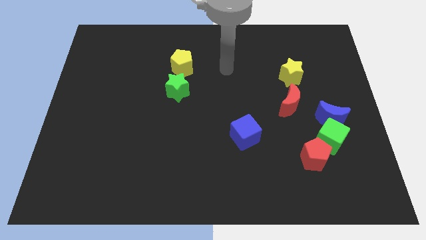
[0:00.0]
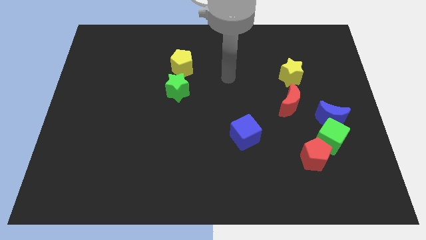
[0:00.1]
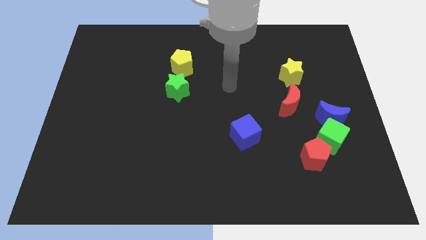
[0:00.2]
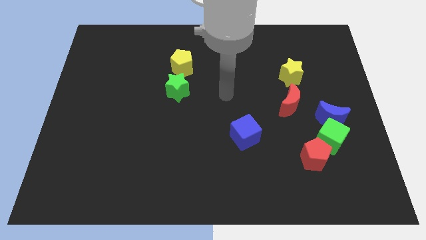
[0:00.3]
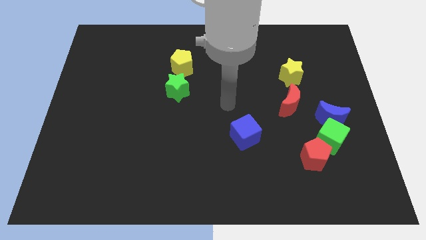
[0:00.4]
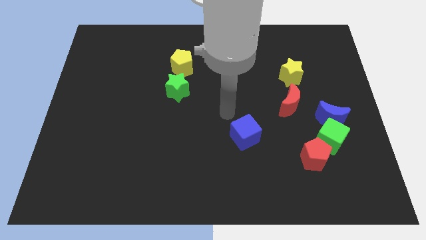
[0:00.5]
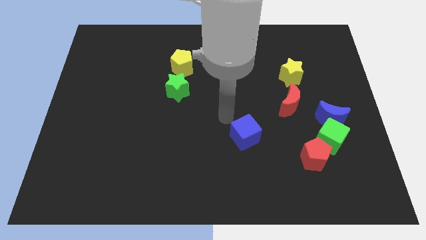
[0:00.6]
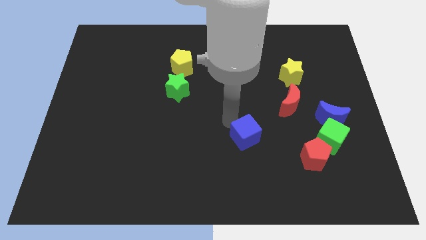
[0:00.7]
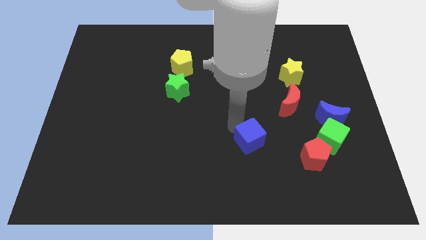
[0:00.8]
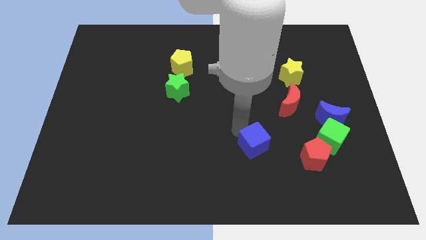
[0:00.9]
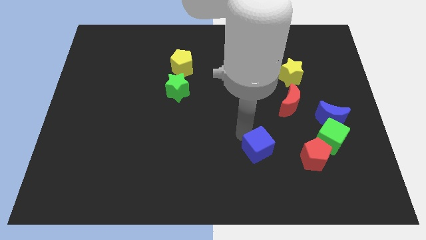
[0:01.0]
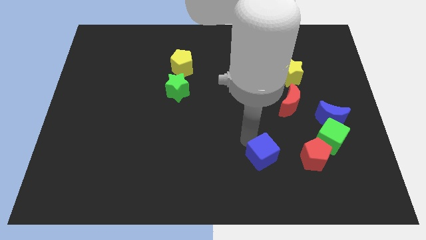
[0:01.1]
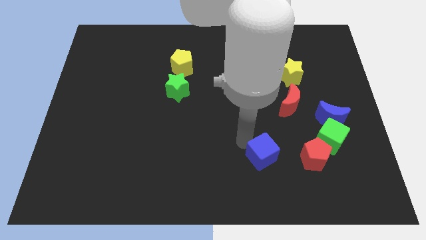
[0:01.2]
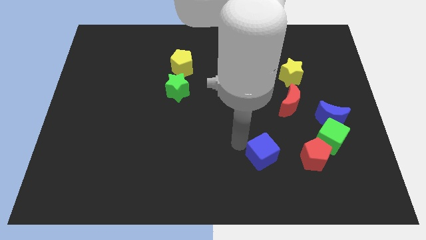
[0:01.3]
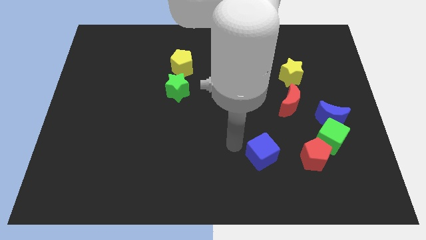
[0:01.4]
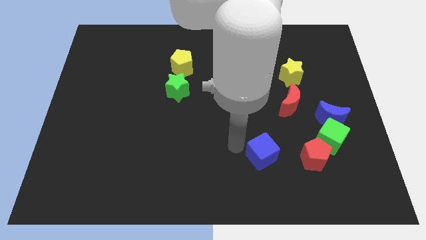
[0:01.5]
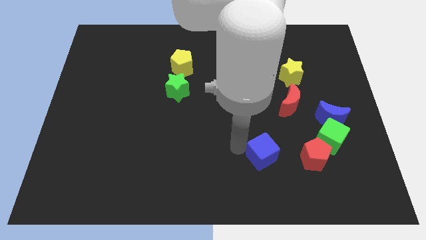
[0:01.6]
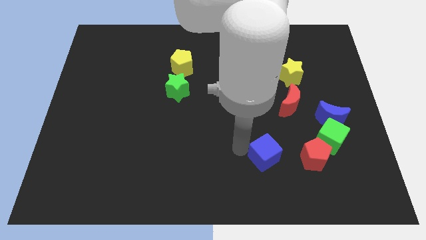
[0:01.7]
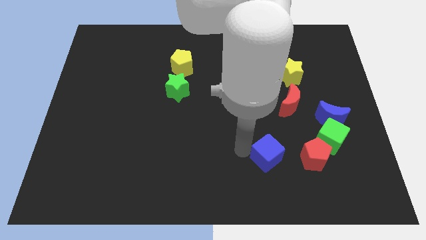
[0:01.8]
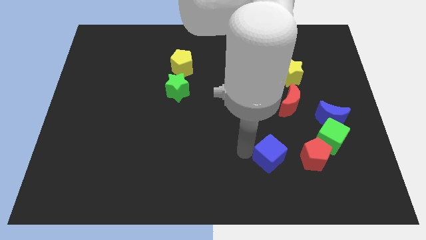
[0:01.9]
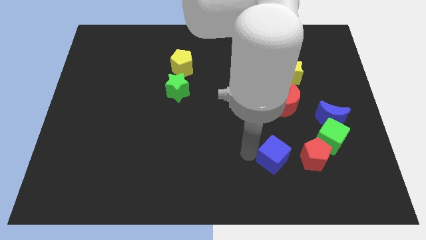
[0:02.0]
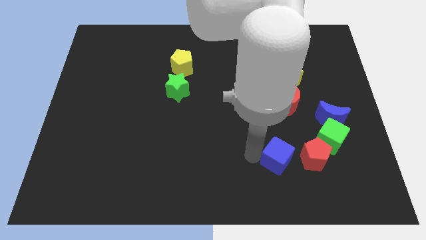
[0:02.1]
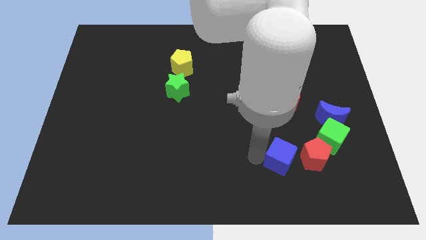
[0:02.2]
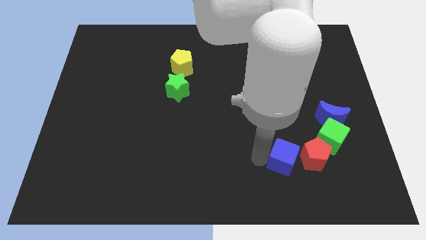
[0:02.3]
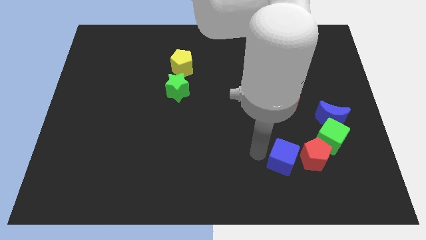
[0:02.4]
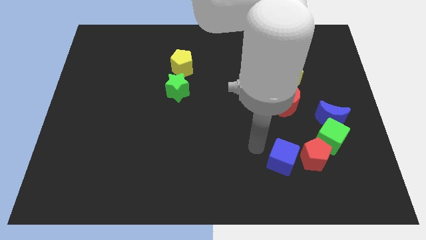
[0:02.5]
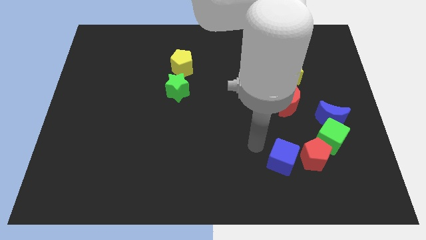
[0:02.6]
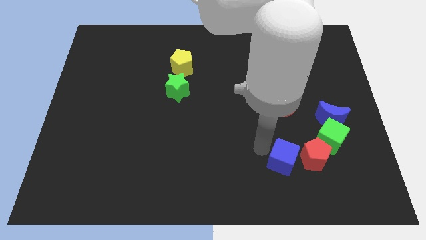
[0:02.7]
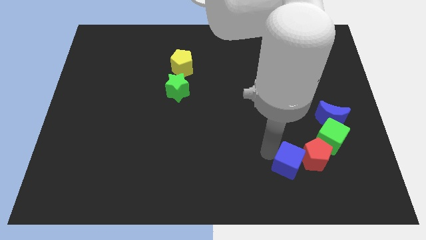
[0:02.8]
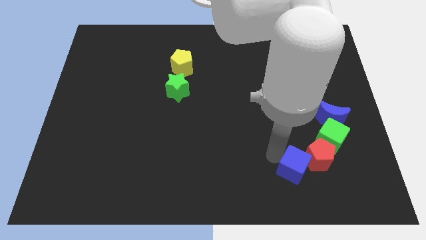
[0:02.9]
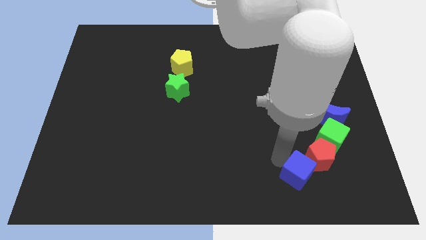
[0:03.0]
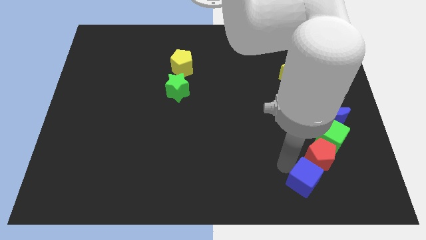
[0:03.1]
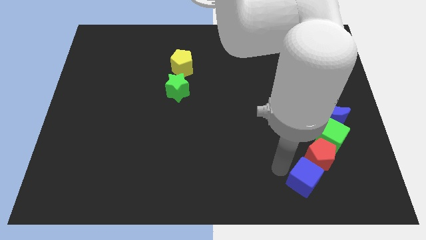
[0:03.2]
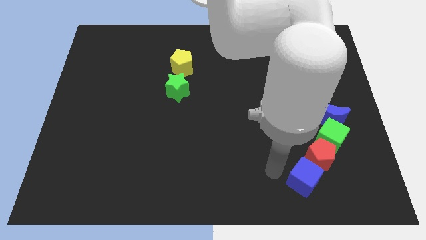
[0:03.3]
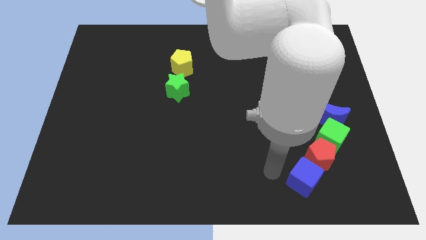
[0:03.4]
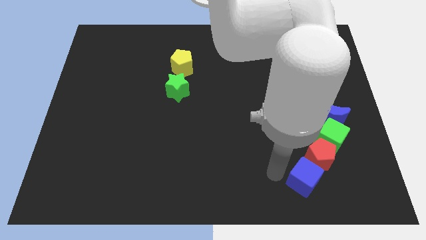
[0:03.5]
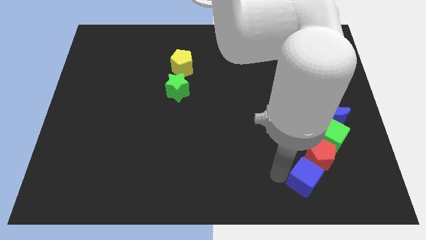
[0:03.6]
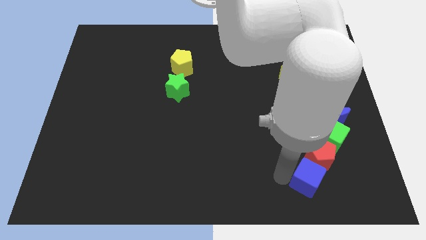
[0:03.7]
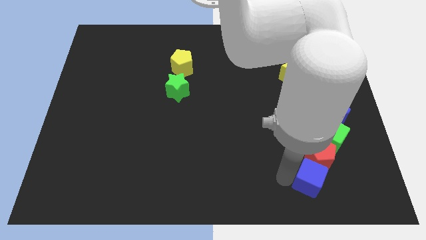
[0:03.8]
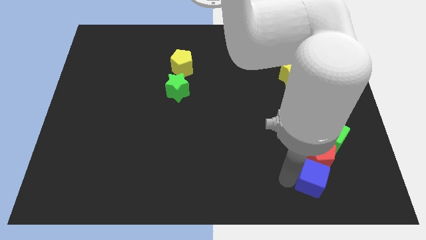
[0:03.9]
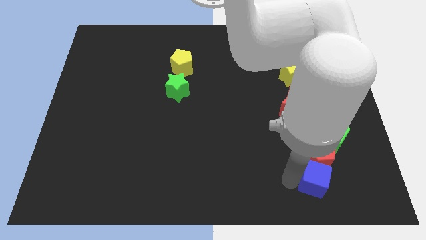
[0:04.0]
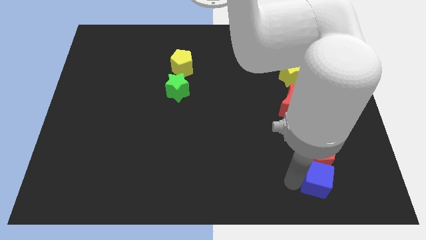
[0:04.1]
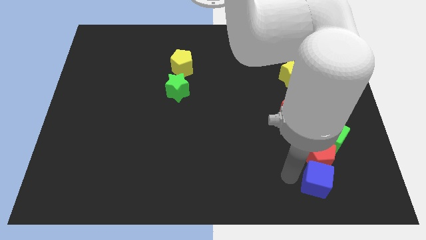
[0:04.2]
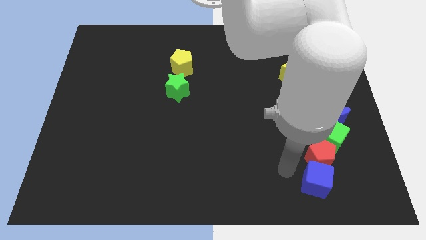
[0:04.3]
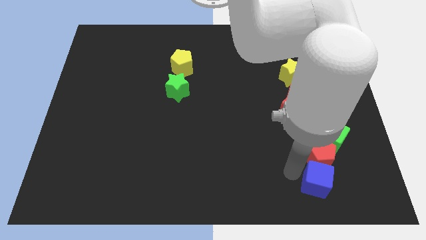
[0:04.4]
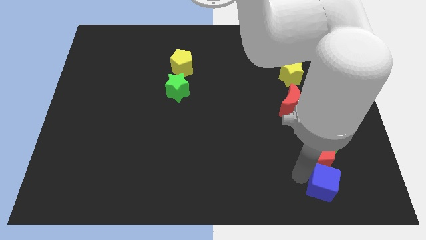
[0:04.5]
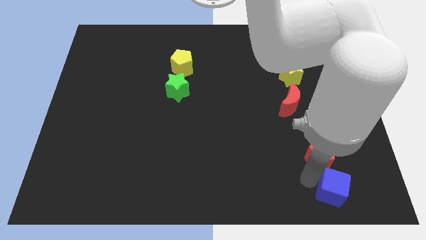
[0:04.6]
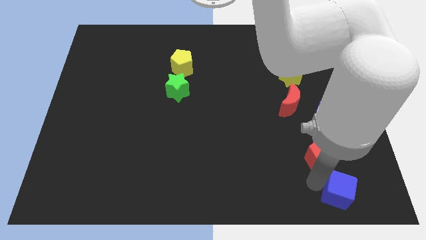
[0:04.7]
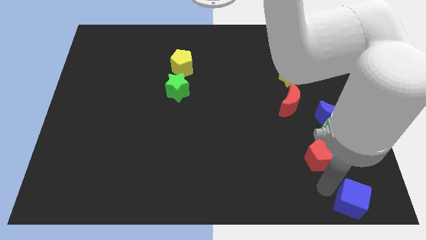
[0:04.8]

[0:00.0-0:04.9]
move the blue cube to the bottom right of the board

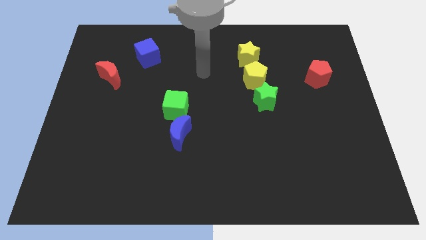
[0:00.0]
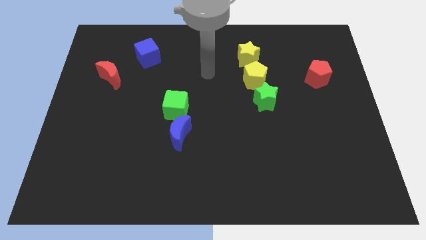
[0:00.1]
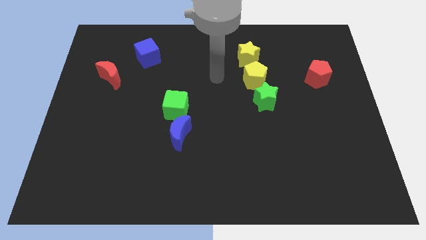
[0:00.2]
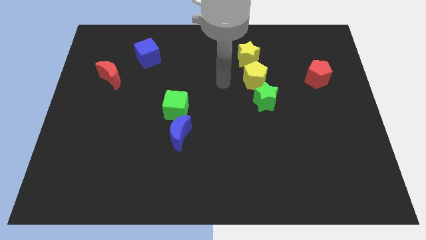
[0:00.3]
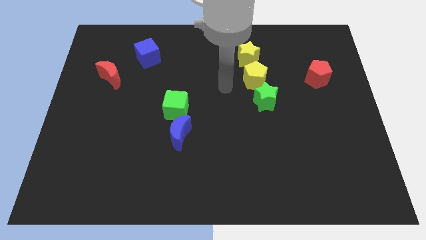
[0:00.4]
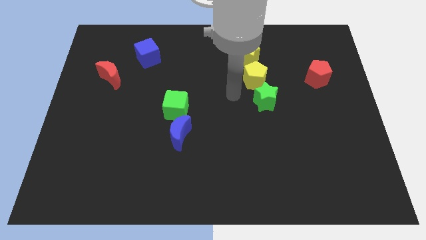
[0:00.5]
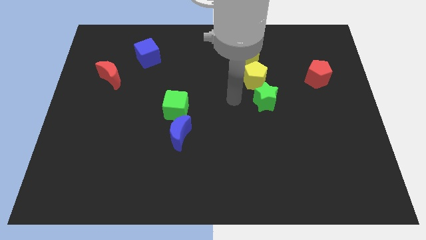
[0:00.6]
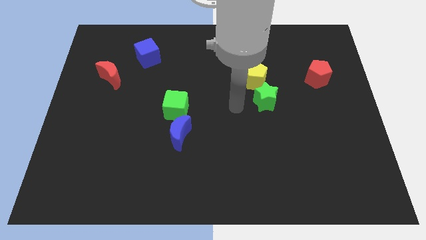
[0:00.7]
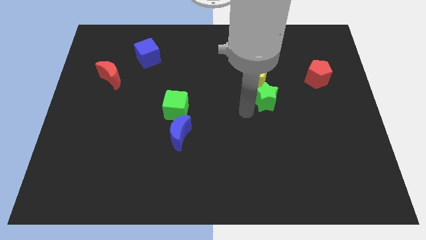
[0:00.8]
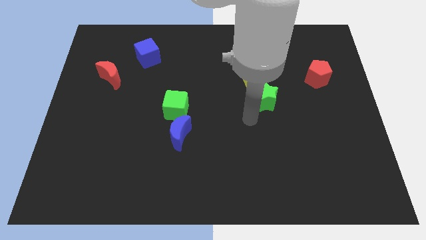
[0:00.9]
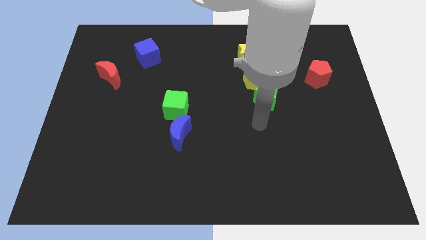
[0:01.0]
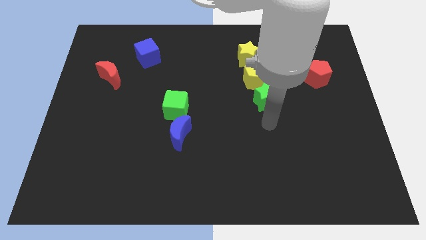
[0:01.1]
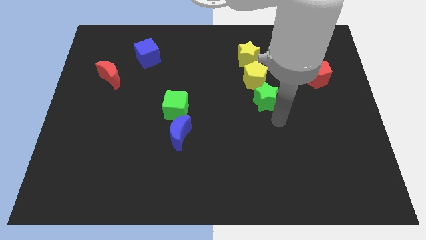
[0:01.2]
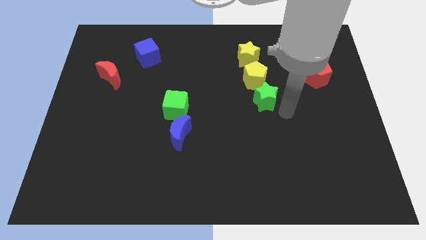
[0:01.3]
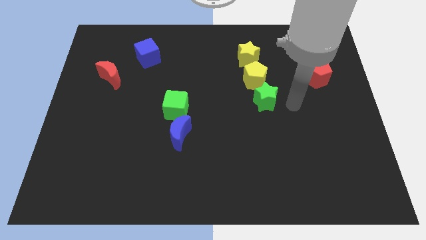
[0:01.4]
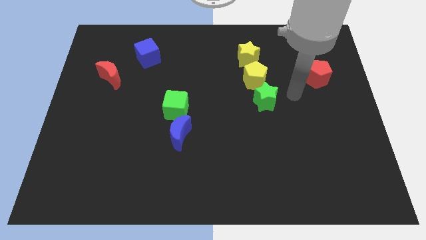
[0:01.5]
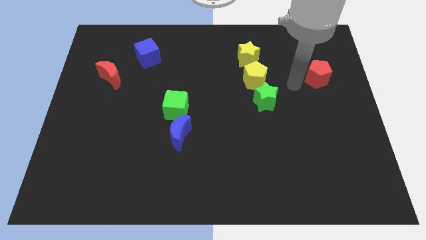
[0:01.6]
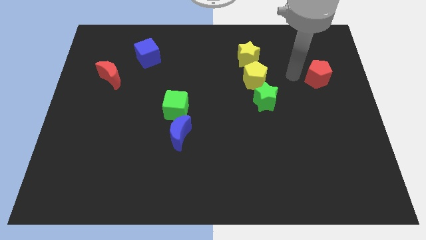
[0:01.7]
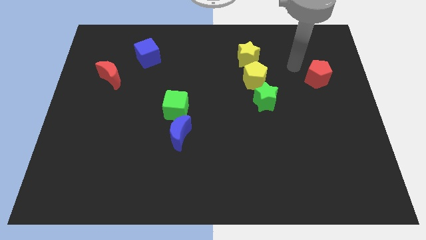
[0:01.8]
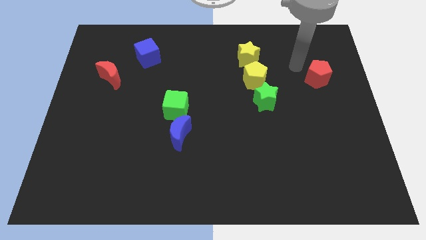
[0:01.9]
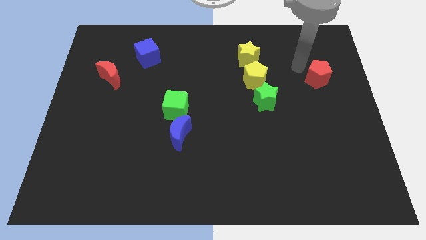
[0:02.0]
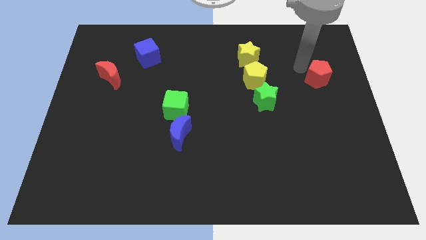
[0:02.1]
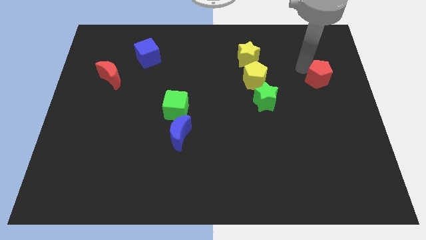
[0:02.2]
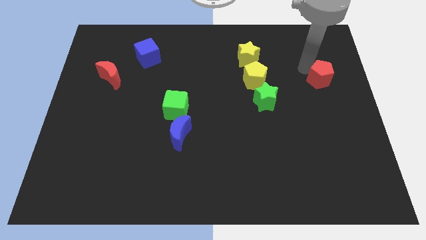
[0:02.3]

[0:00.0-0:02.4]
move the red pentagon to the right side
